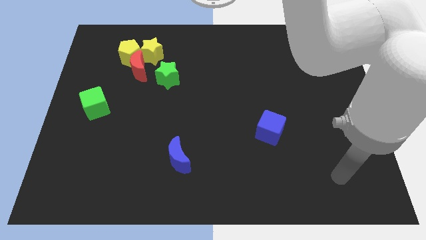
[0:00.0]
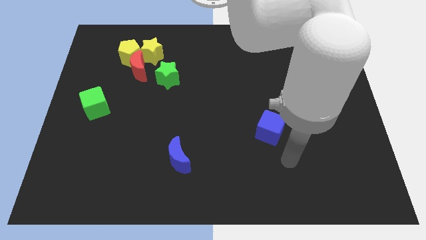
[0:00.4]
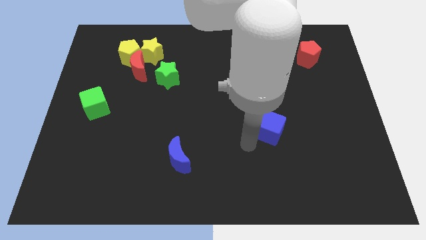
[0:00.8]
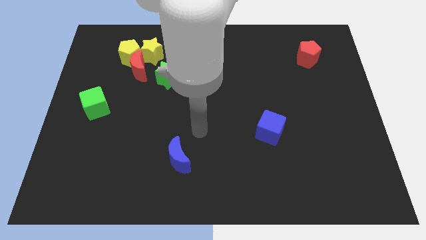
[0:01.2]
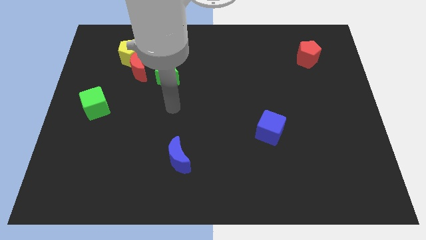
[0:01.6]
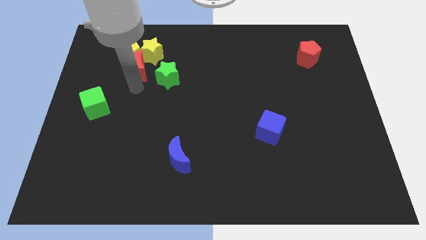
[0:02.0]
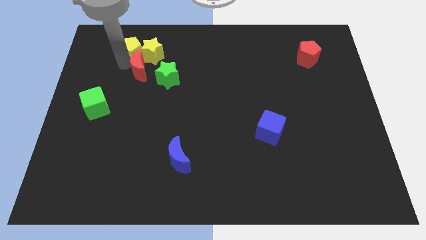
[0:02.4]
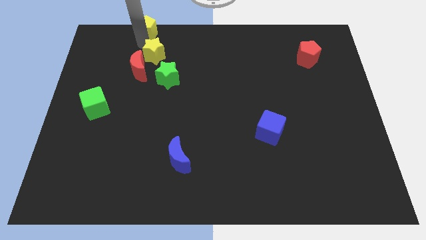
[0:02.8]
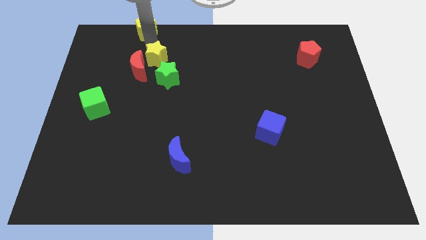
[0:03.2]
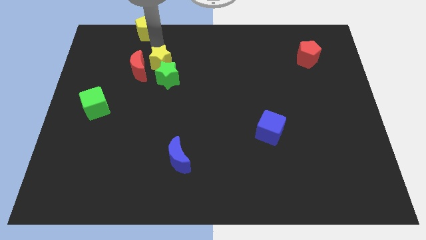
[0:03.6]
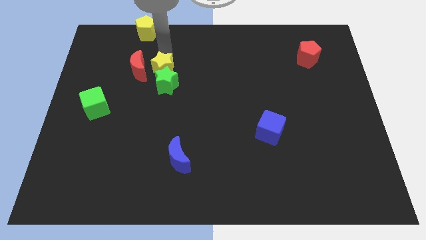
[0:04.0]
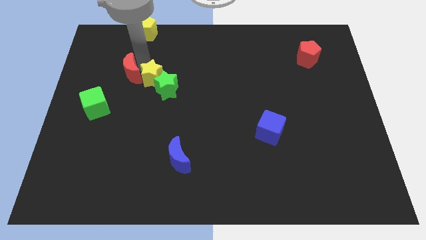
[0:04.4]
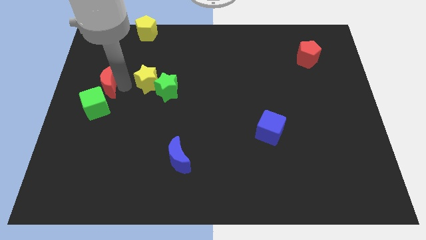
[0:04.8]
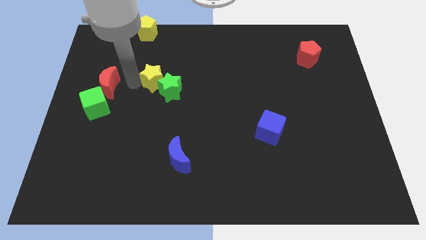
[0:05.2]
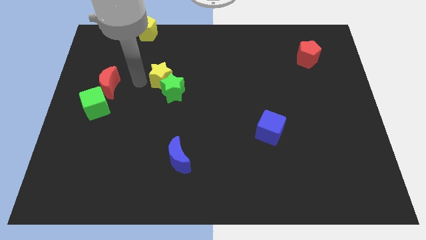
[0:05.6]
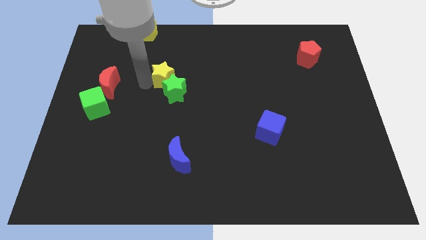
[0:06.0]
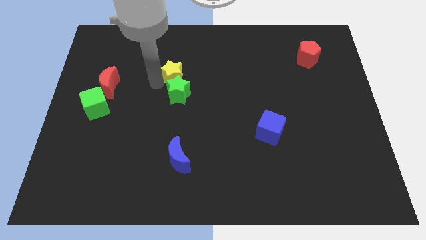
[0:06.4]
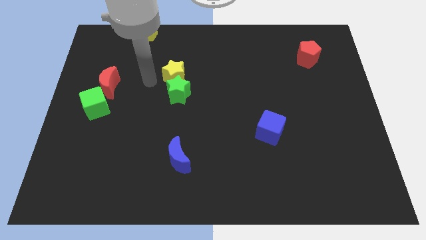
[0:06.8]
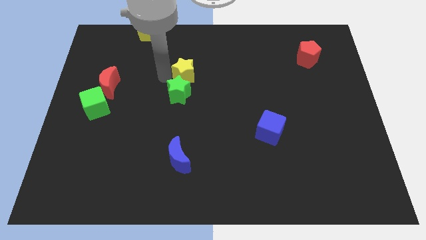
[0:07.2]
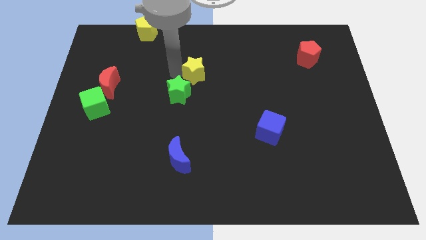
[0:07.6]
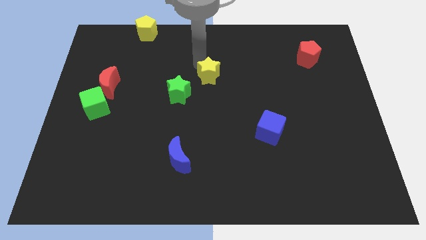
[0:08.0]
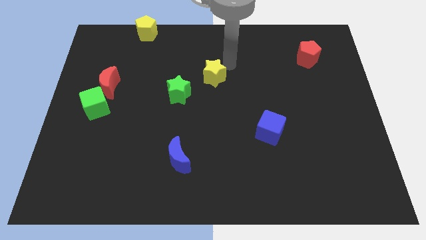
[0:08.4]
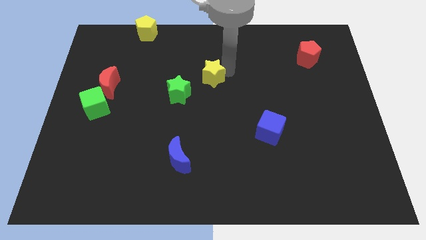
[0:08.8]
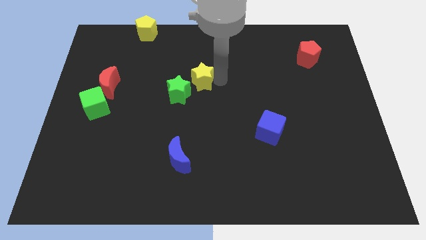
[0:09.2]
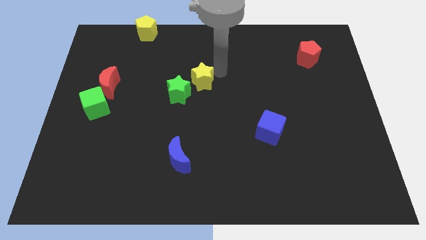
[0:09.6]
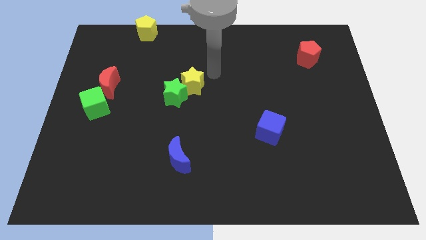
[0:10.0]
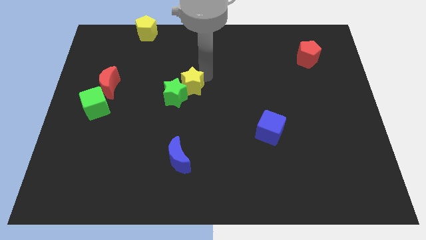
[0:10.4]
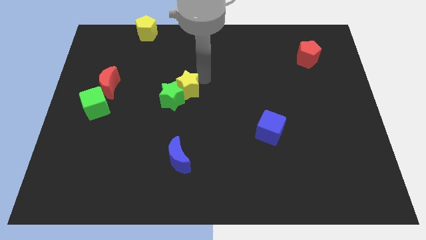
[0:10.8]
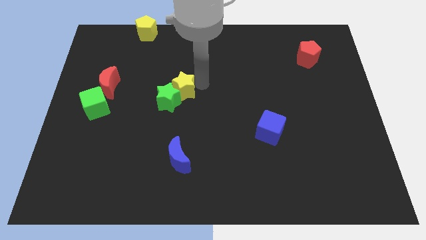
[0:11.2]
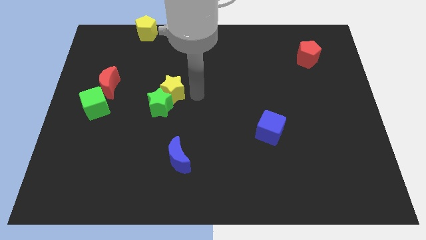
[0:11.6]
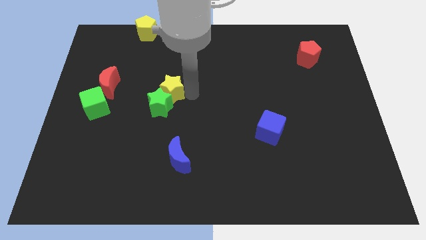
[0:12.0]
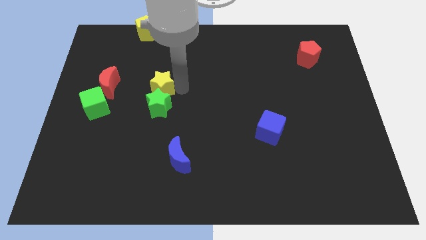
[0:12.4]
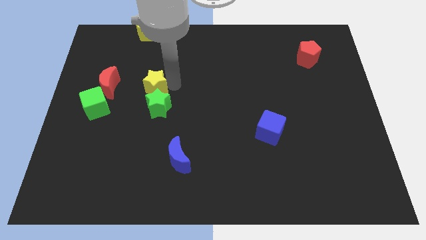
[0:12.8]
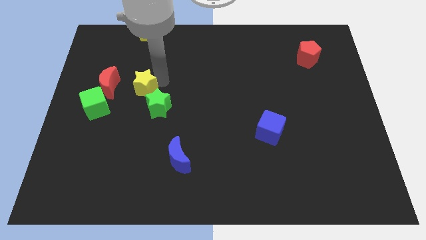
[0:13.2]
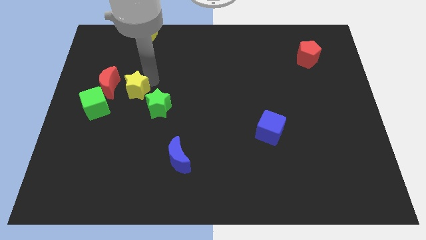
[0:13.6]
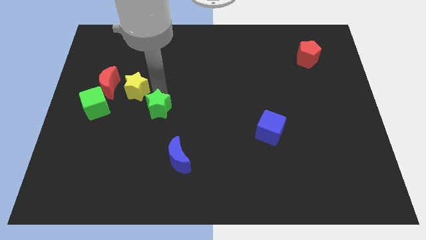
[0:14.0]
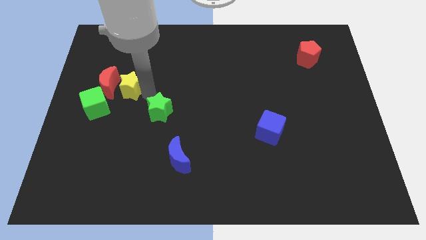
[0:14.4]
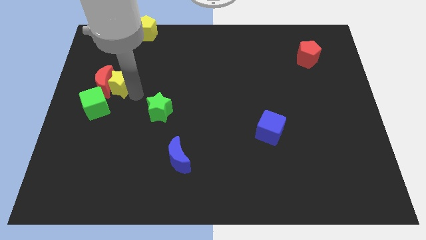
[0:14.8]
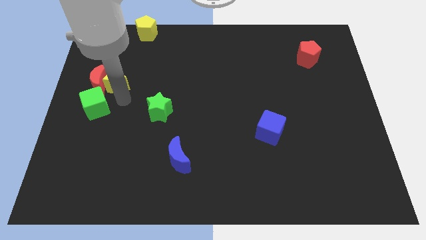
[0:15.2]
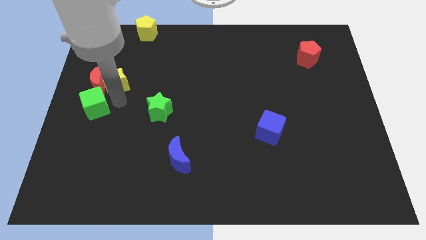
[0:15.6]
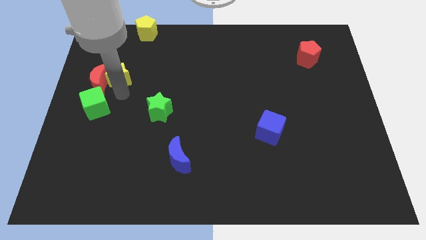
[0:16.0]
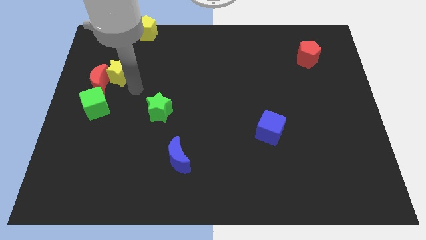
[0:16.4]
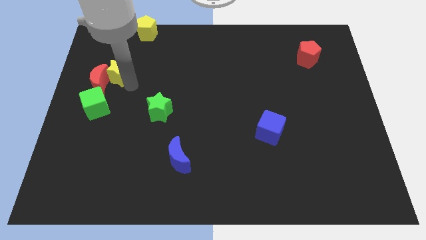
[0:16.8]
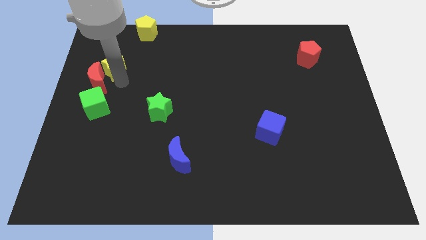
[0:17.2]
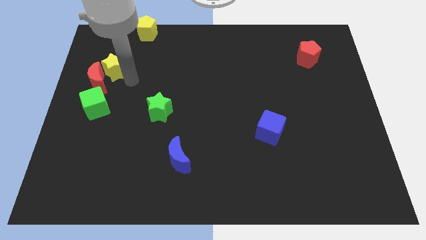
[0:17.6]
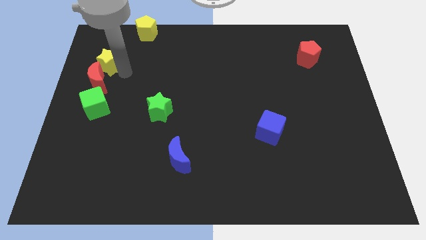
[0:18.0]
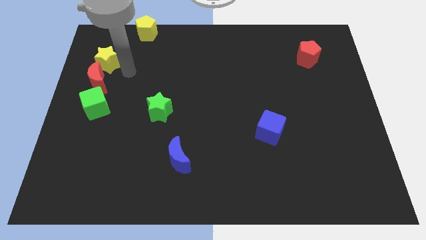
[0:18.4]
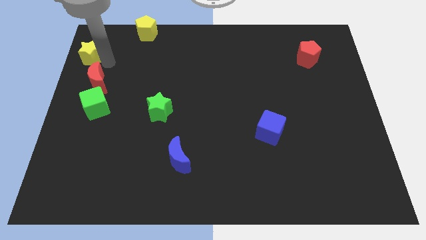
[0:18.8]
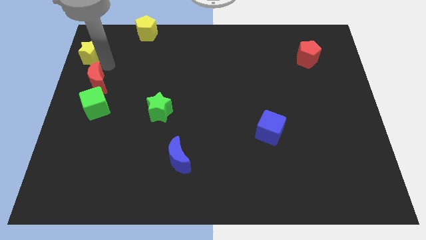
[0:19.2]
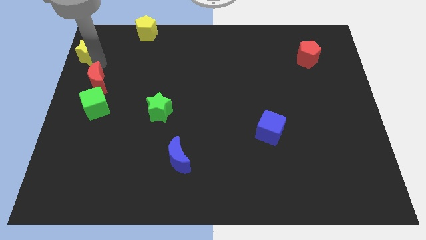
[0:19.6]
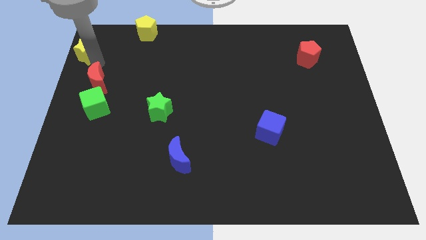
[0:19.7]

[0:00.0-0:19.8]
push the yellow star to the top left corner

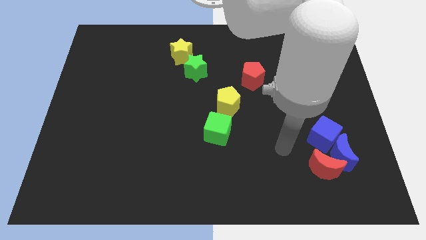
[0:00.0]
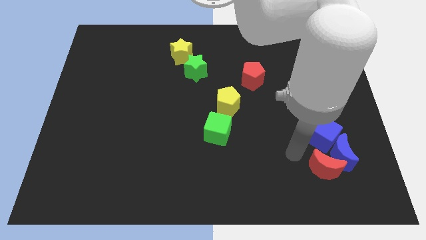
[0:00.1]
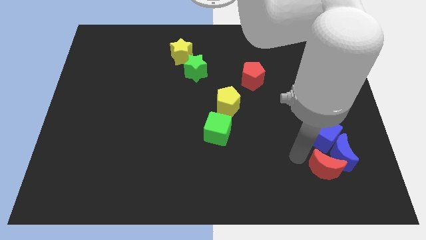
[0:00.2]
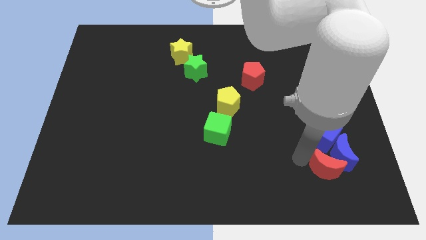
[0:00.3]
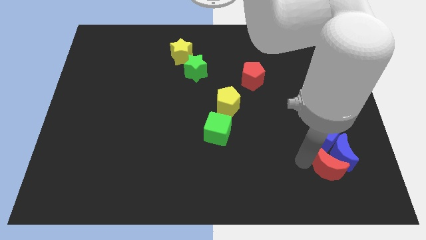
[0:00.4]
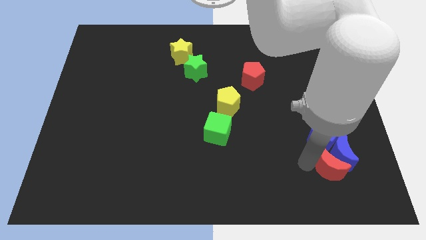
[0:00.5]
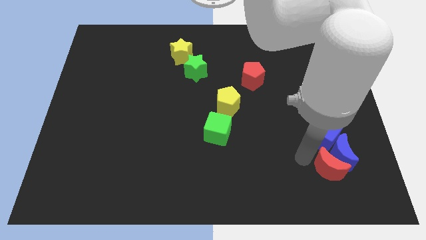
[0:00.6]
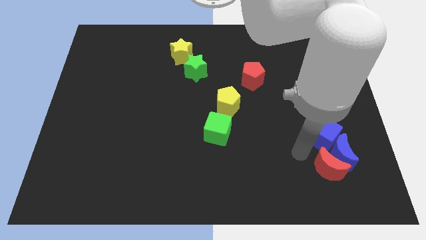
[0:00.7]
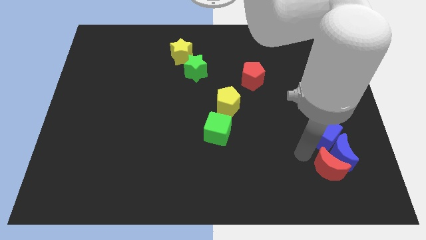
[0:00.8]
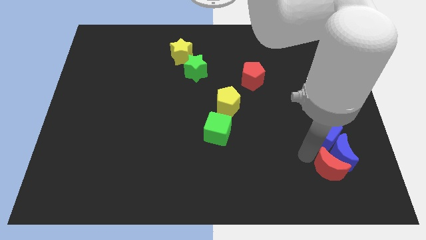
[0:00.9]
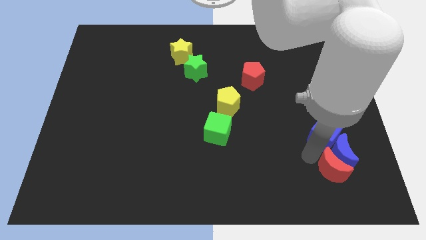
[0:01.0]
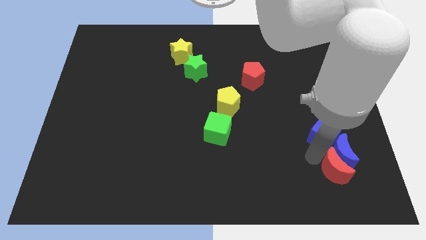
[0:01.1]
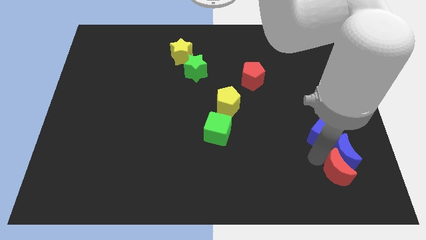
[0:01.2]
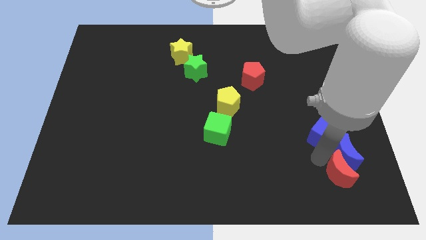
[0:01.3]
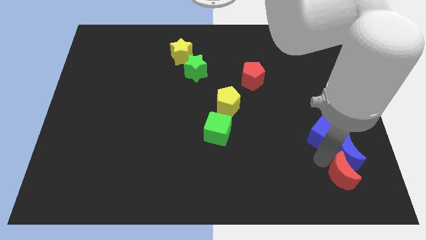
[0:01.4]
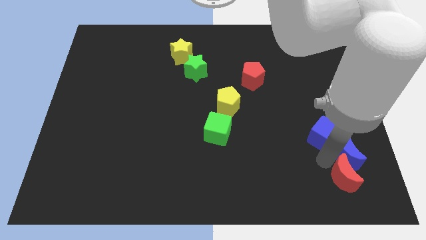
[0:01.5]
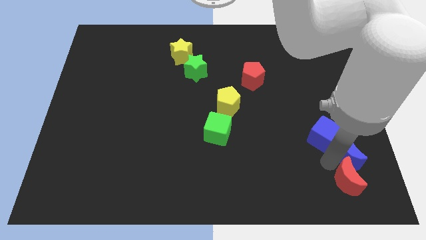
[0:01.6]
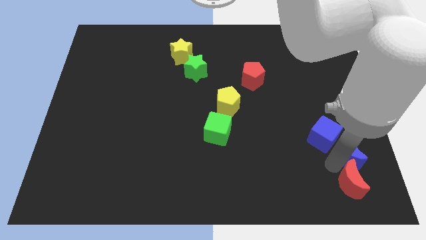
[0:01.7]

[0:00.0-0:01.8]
move the red moon to the lower right corner
